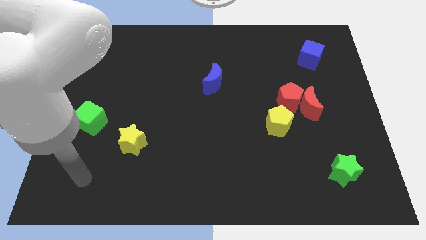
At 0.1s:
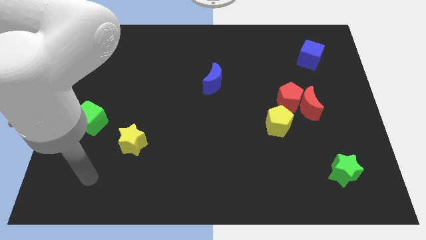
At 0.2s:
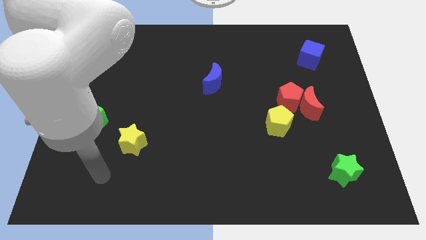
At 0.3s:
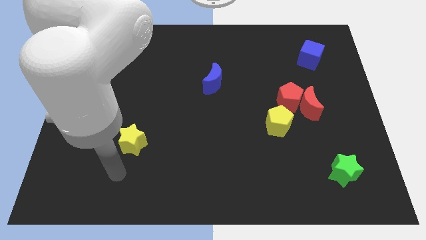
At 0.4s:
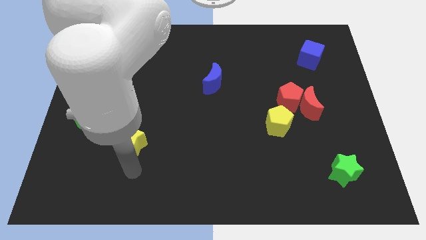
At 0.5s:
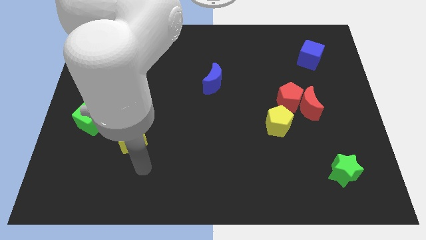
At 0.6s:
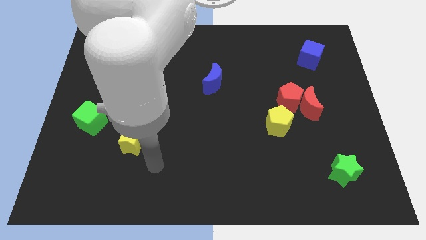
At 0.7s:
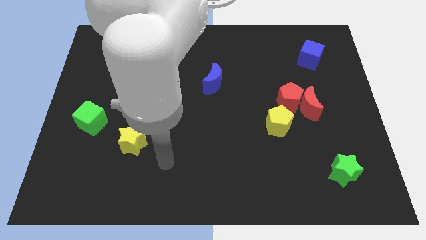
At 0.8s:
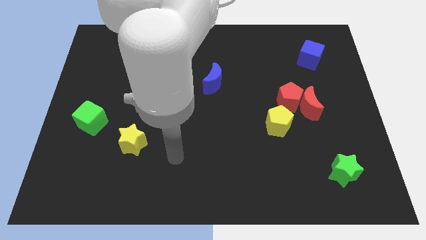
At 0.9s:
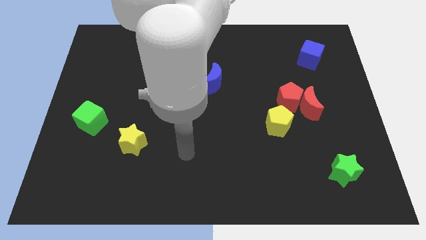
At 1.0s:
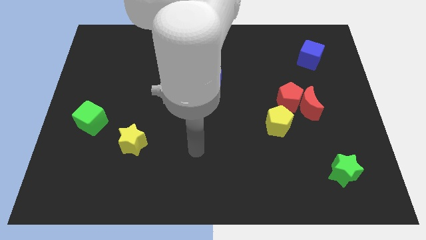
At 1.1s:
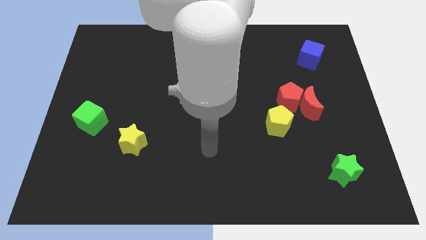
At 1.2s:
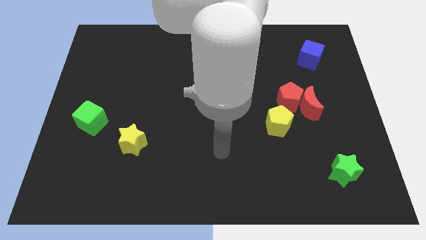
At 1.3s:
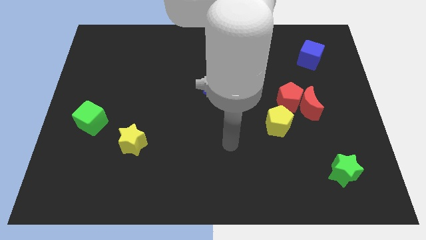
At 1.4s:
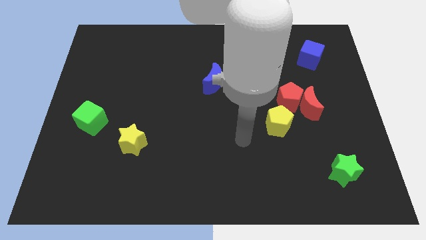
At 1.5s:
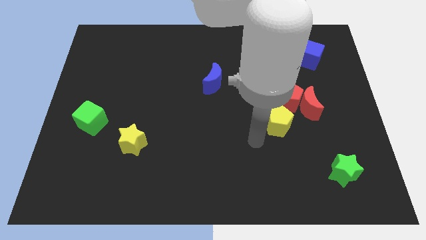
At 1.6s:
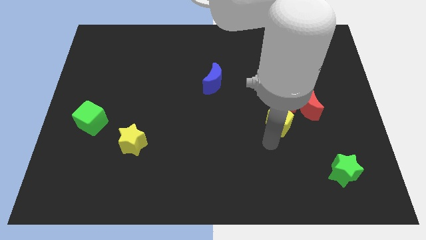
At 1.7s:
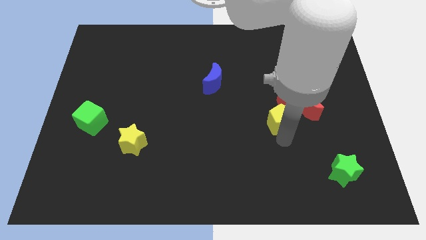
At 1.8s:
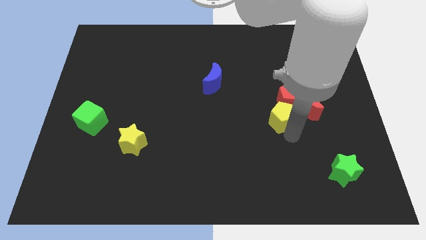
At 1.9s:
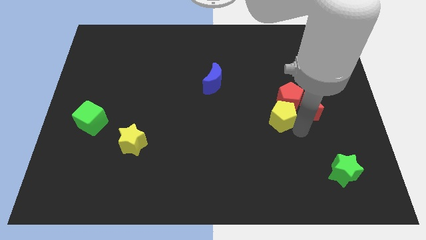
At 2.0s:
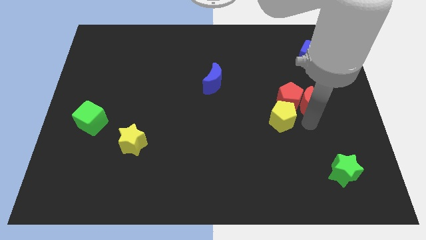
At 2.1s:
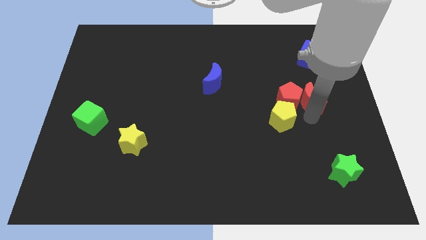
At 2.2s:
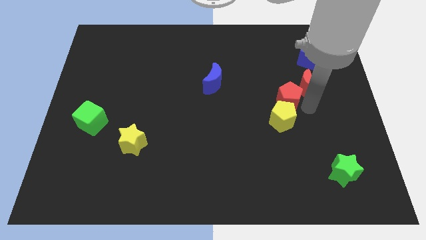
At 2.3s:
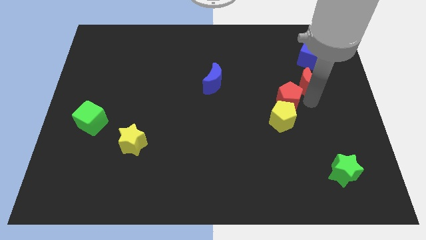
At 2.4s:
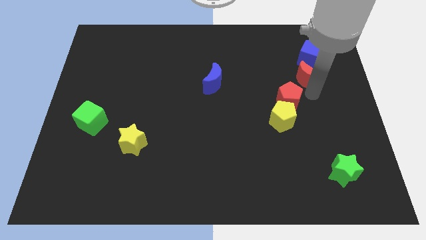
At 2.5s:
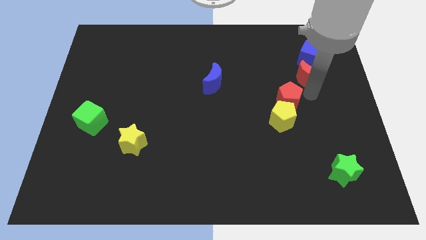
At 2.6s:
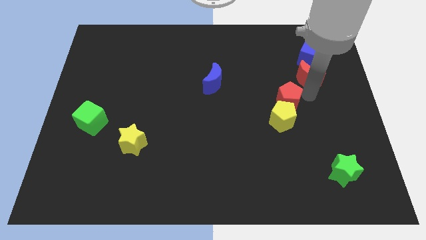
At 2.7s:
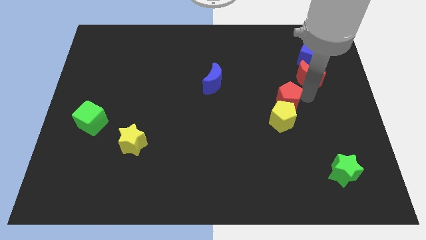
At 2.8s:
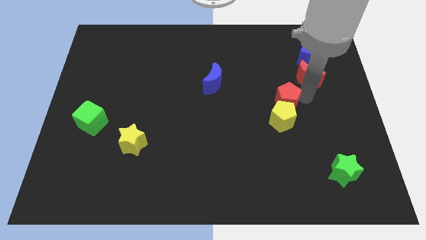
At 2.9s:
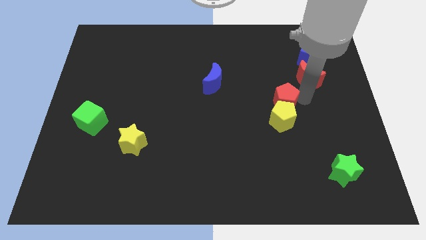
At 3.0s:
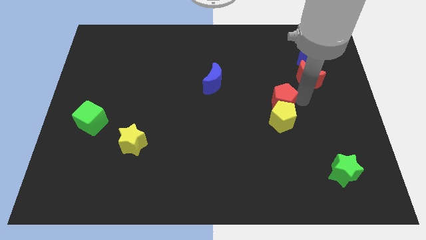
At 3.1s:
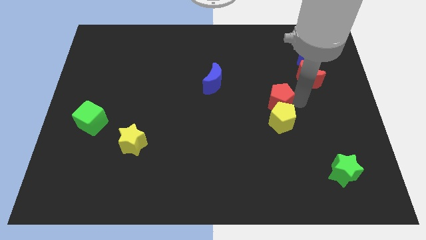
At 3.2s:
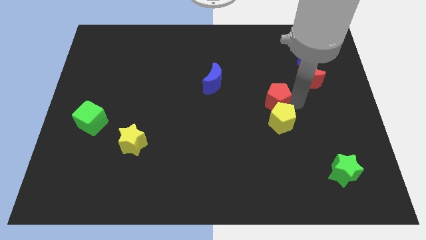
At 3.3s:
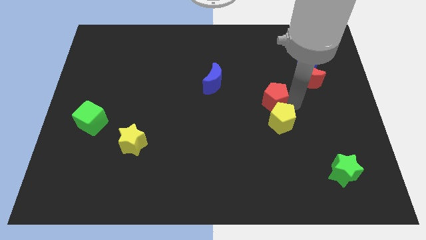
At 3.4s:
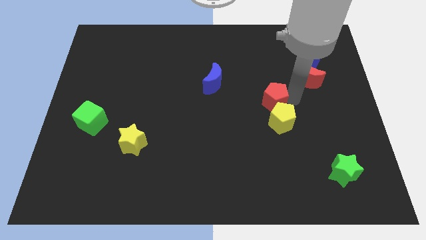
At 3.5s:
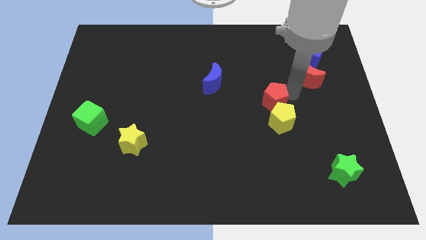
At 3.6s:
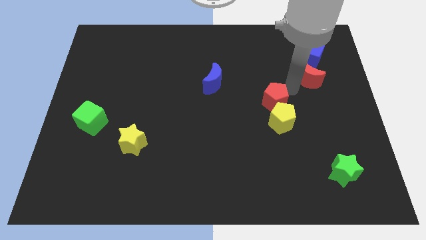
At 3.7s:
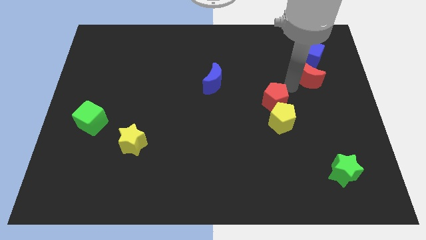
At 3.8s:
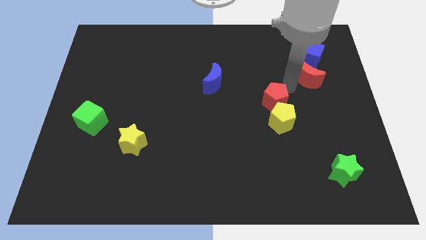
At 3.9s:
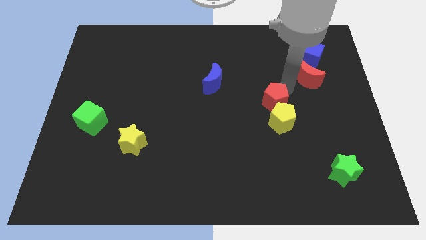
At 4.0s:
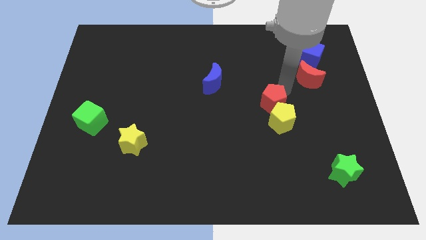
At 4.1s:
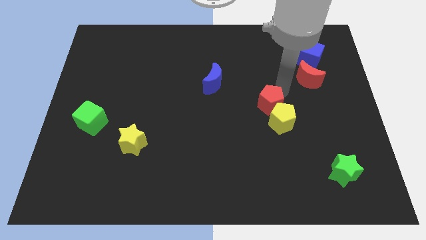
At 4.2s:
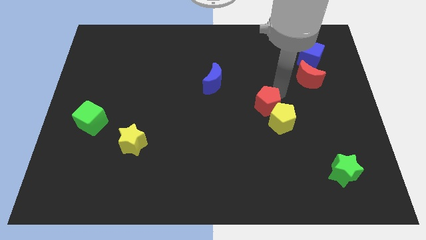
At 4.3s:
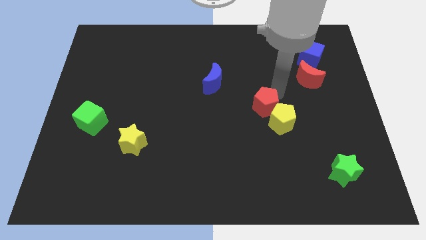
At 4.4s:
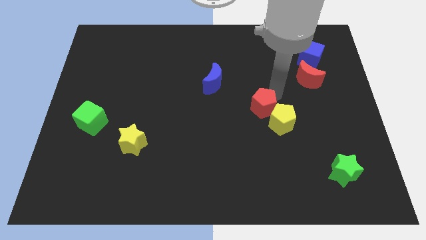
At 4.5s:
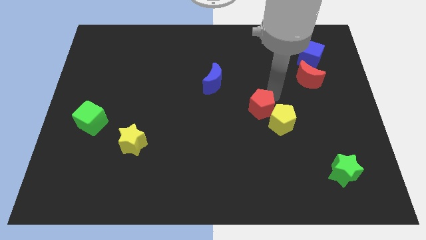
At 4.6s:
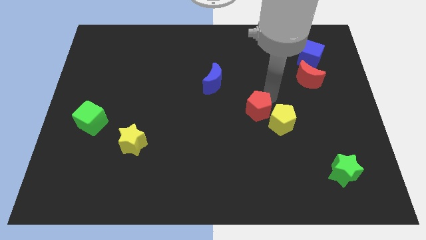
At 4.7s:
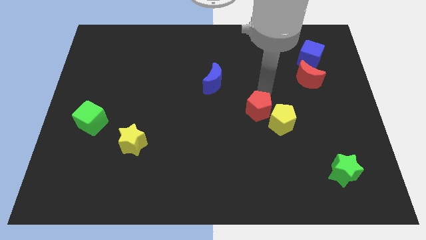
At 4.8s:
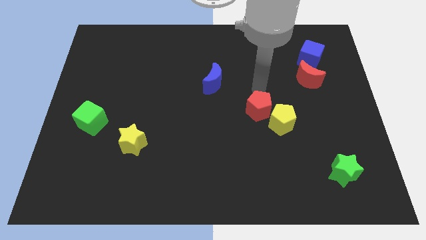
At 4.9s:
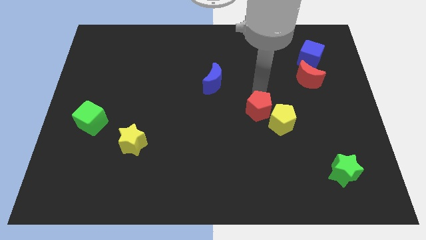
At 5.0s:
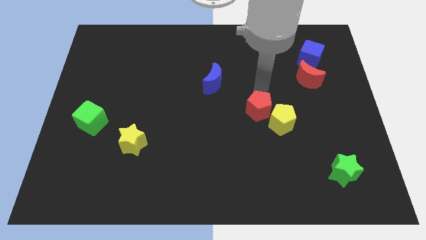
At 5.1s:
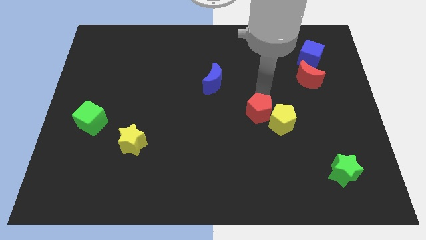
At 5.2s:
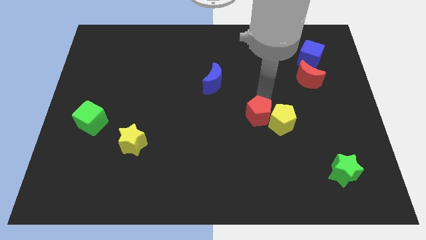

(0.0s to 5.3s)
slide the red pentagon to the bottom left of the yellow pentagon

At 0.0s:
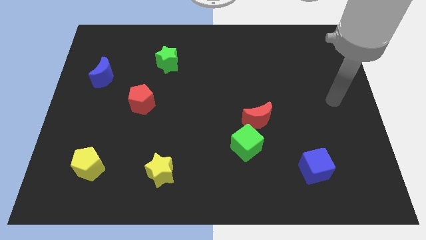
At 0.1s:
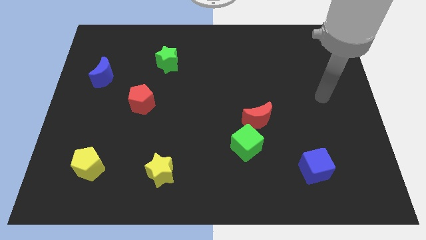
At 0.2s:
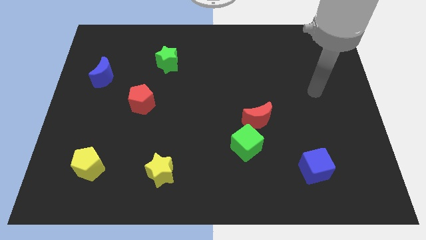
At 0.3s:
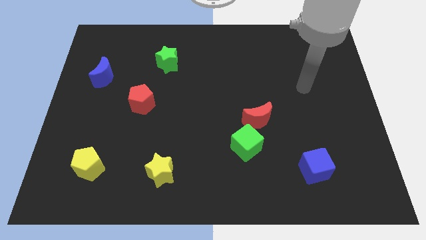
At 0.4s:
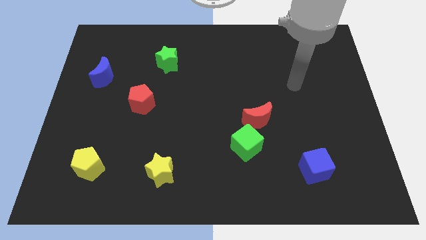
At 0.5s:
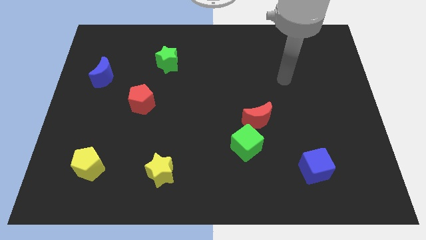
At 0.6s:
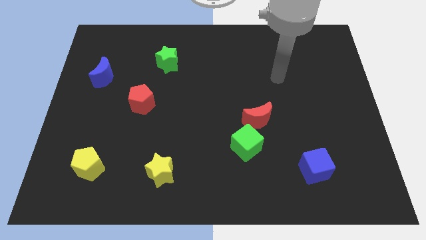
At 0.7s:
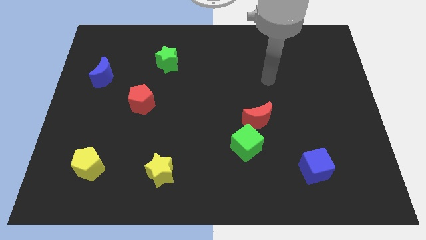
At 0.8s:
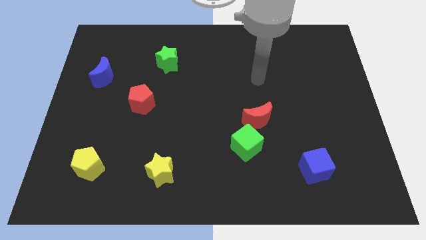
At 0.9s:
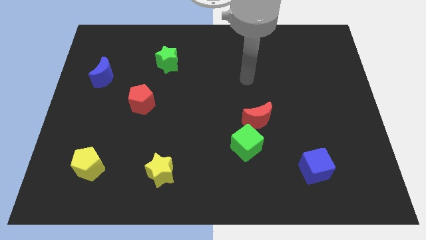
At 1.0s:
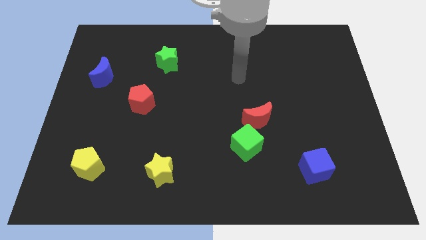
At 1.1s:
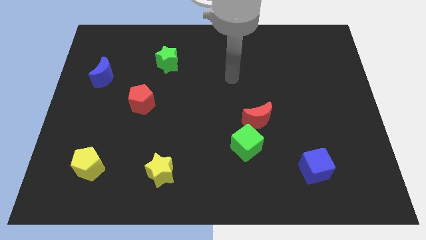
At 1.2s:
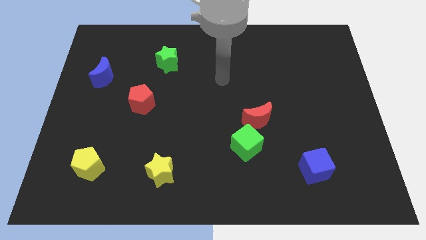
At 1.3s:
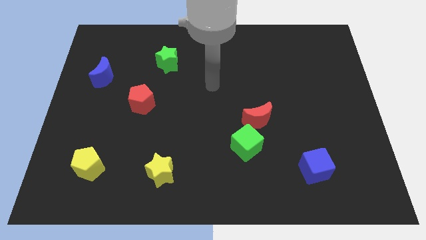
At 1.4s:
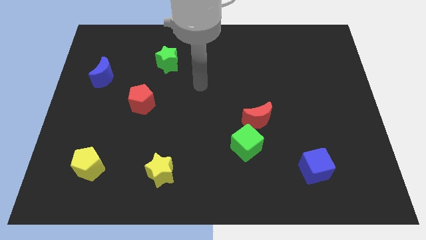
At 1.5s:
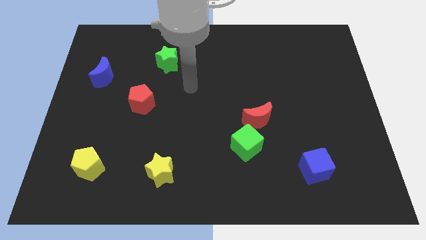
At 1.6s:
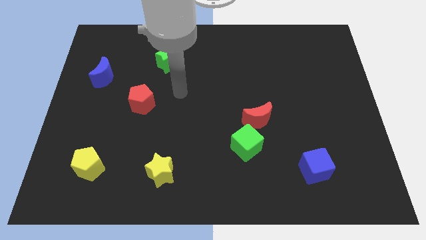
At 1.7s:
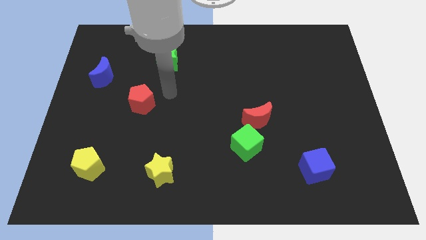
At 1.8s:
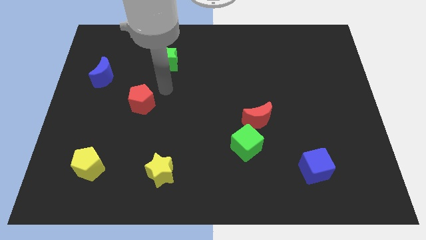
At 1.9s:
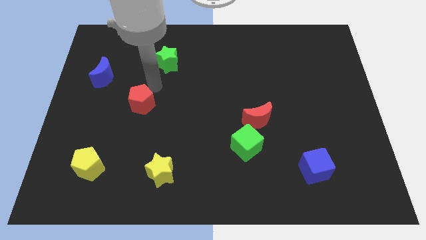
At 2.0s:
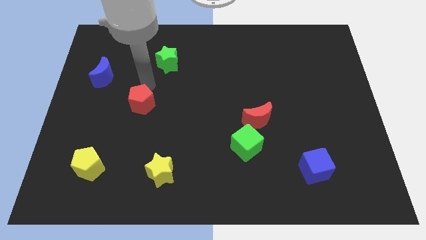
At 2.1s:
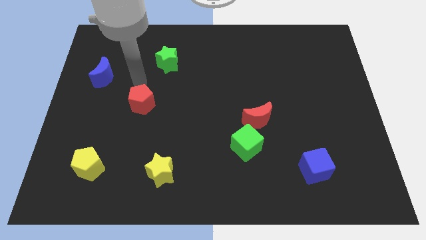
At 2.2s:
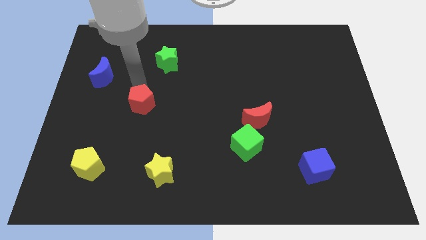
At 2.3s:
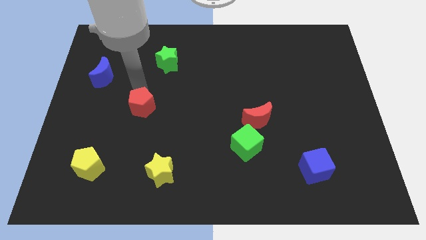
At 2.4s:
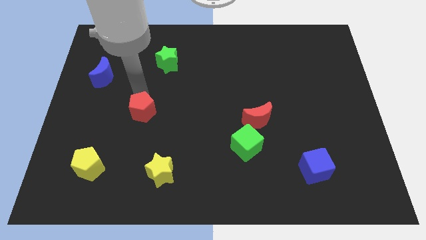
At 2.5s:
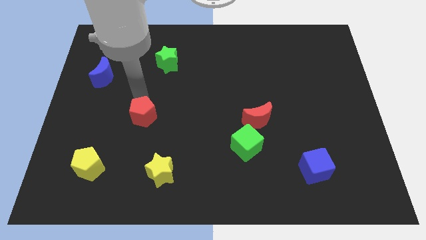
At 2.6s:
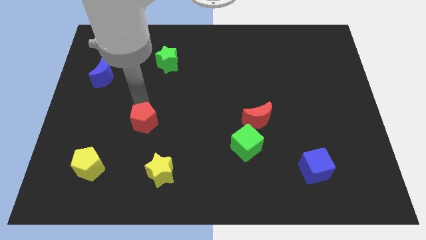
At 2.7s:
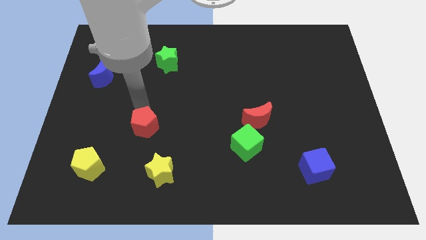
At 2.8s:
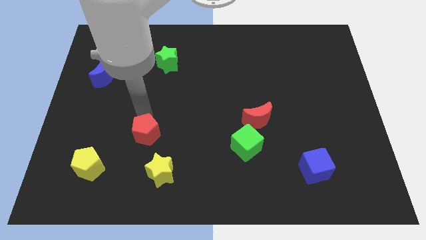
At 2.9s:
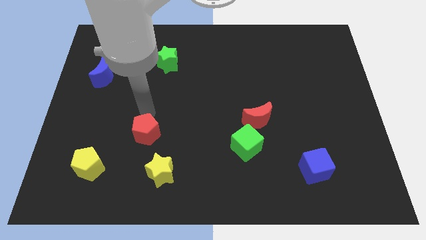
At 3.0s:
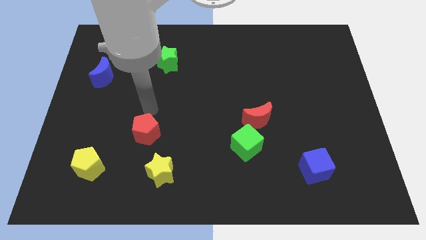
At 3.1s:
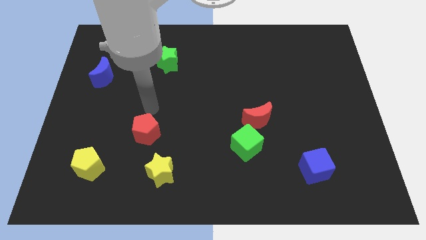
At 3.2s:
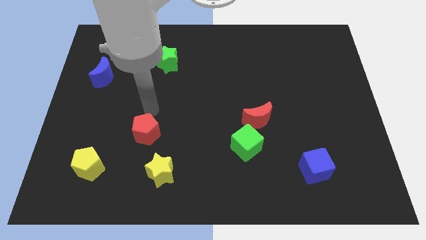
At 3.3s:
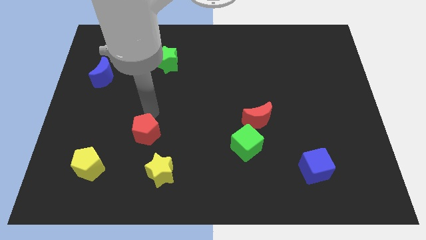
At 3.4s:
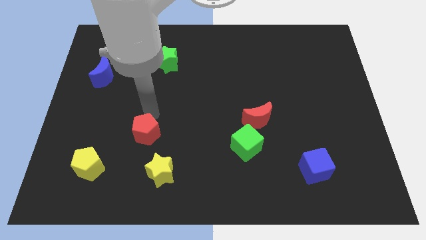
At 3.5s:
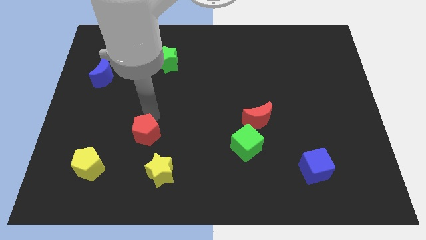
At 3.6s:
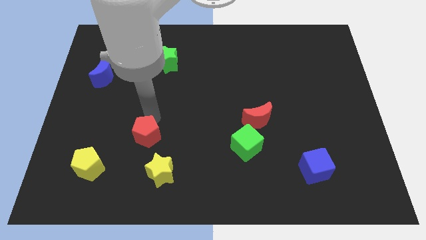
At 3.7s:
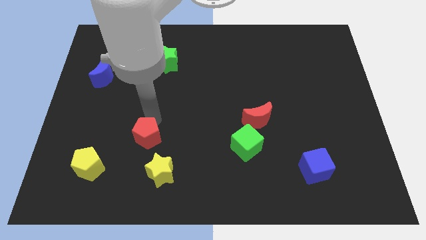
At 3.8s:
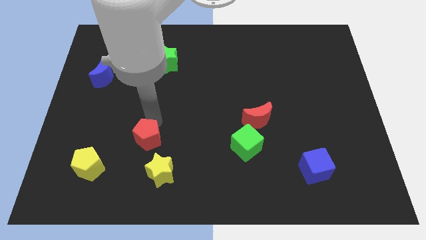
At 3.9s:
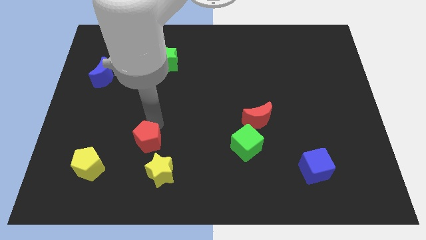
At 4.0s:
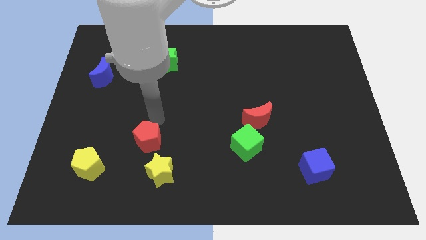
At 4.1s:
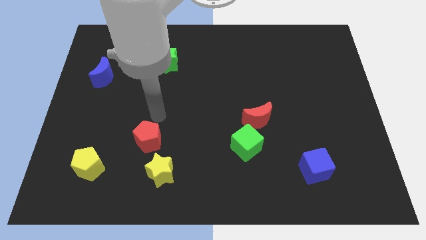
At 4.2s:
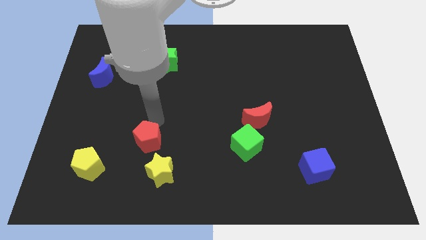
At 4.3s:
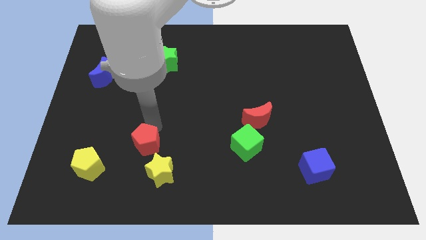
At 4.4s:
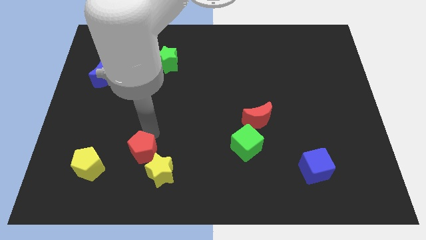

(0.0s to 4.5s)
slide the red pentagon to the right side of the yellow pentagon
